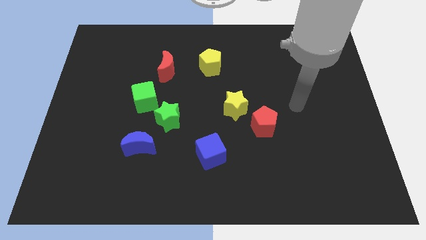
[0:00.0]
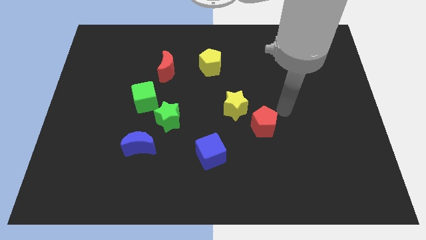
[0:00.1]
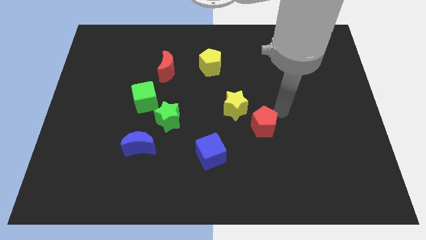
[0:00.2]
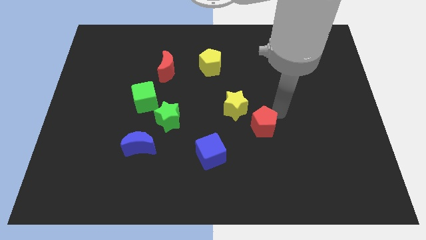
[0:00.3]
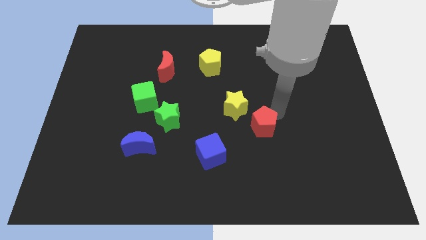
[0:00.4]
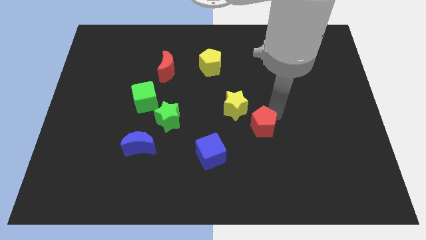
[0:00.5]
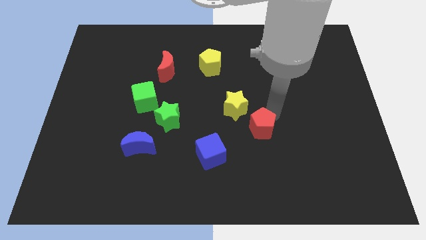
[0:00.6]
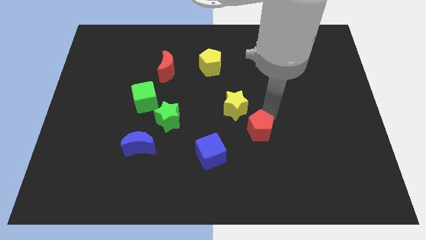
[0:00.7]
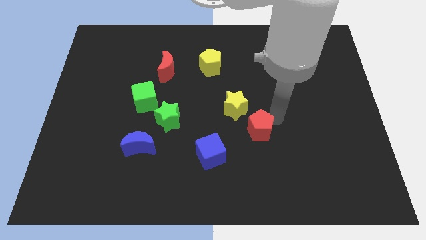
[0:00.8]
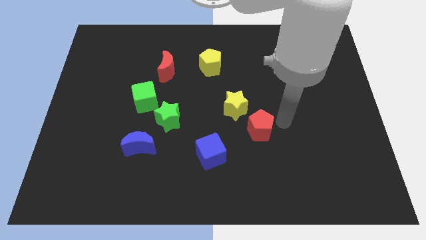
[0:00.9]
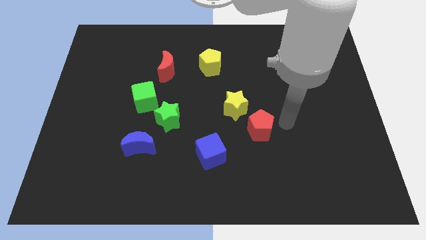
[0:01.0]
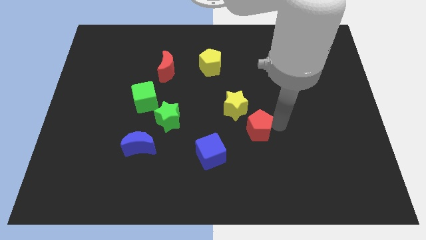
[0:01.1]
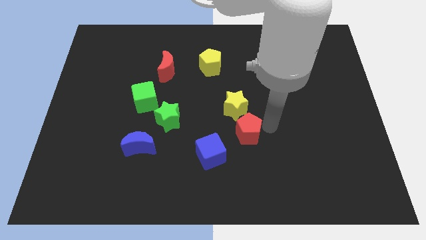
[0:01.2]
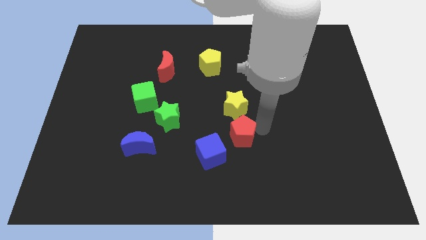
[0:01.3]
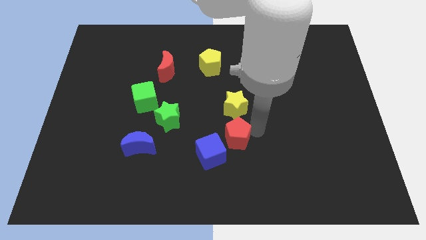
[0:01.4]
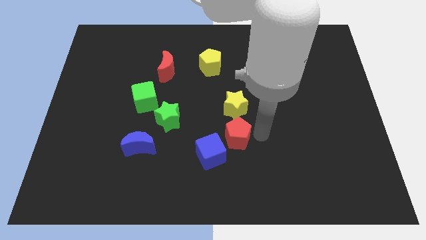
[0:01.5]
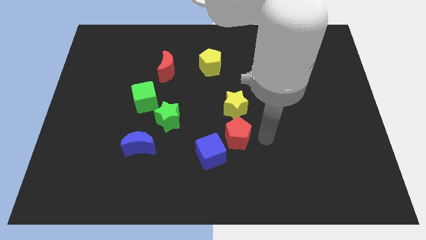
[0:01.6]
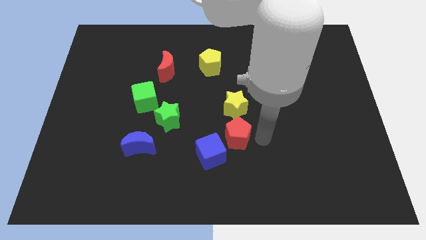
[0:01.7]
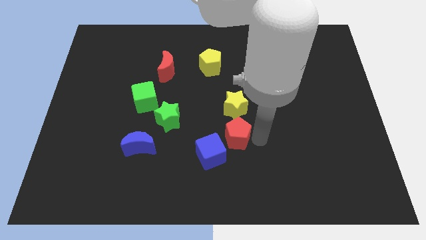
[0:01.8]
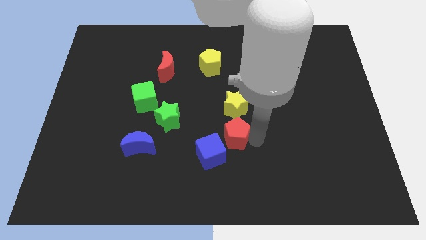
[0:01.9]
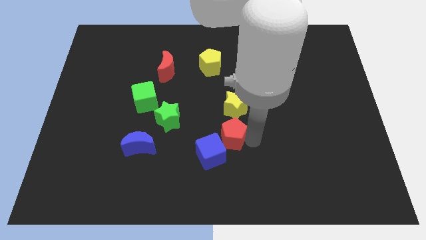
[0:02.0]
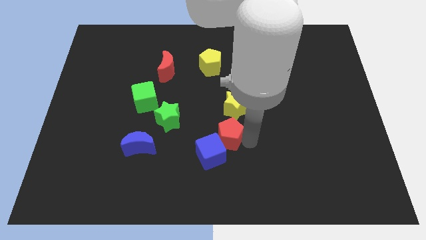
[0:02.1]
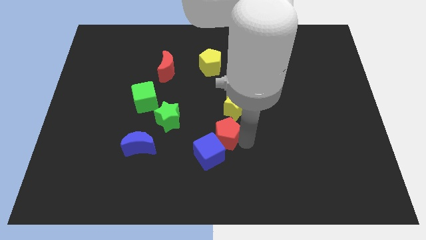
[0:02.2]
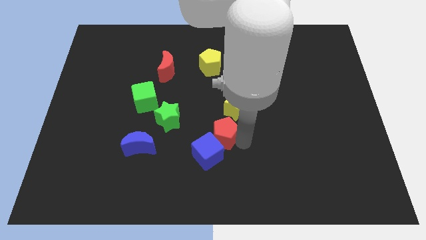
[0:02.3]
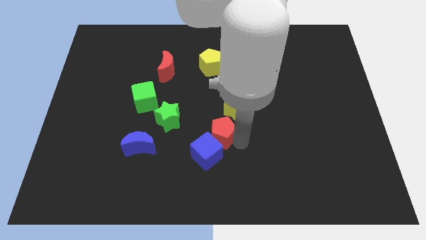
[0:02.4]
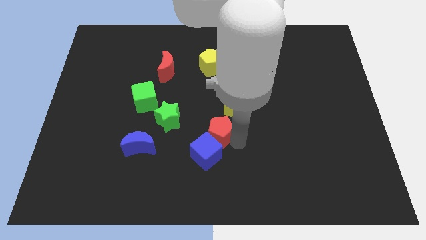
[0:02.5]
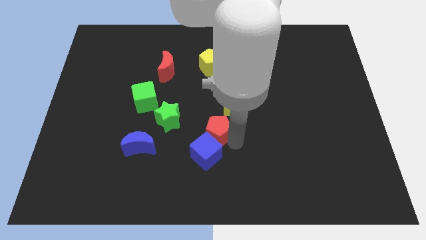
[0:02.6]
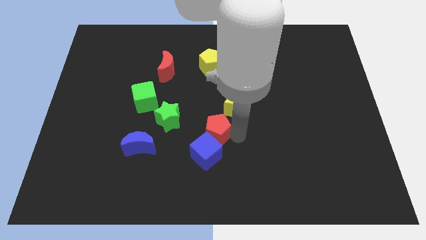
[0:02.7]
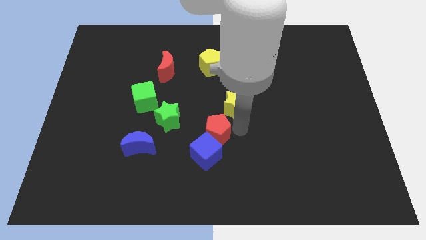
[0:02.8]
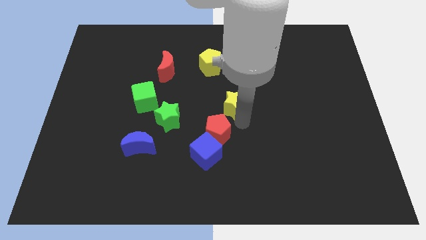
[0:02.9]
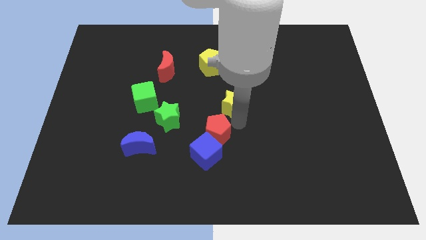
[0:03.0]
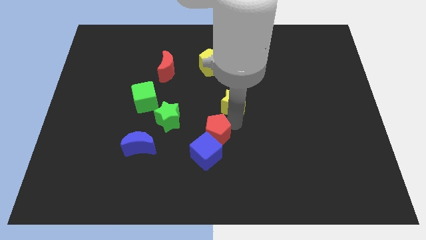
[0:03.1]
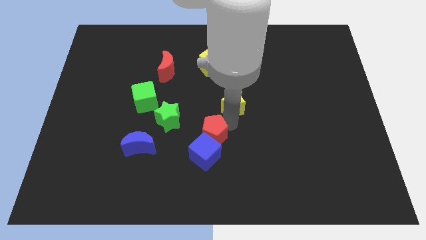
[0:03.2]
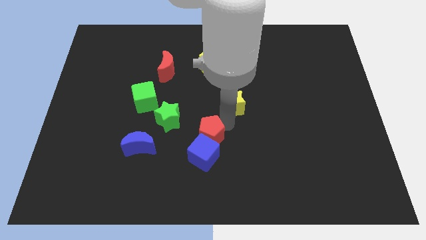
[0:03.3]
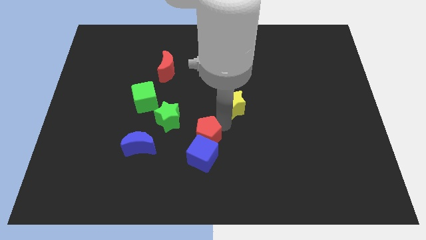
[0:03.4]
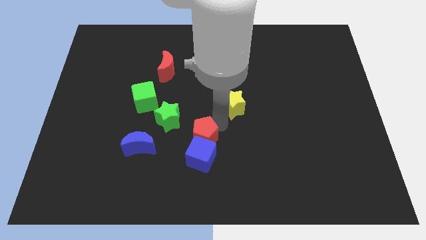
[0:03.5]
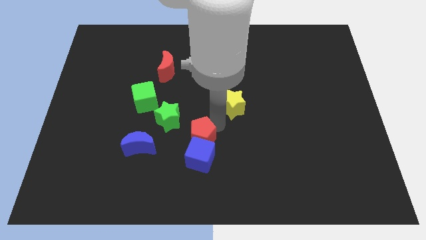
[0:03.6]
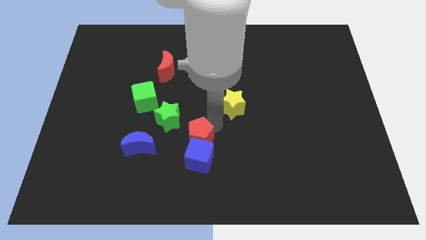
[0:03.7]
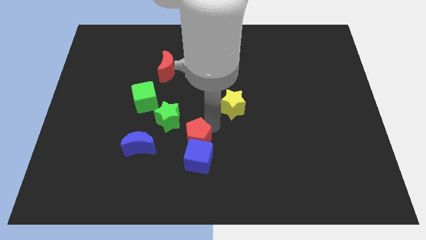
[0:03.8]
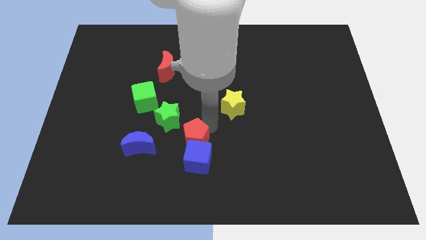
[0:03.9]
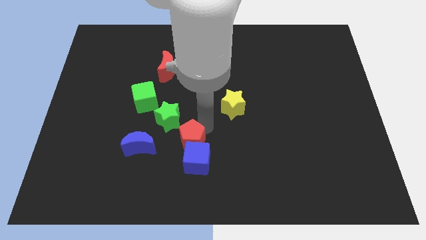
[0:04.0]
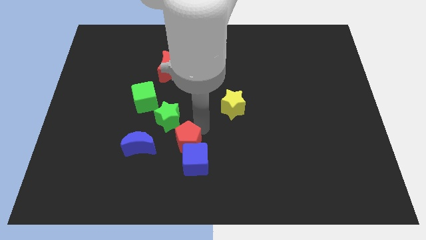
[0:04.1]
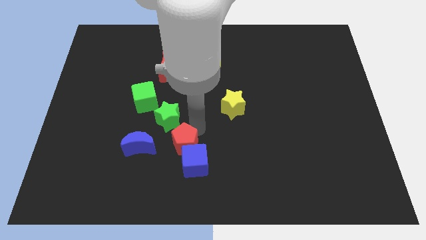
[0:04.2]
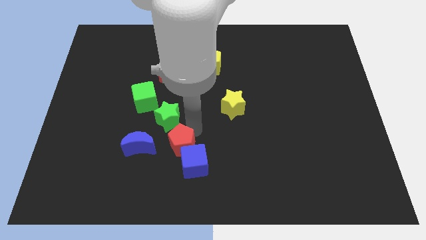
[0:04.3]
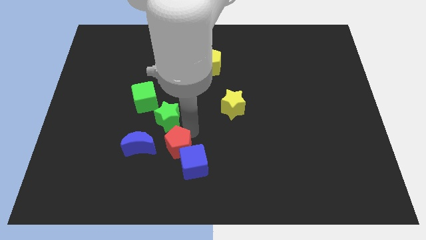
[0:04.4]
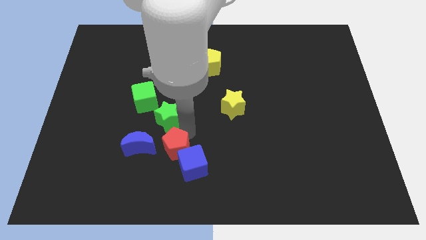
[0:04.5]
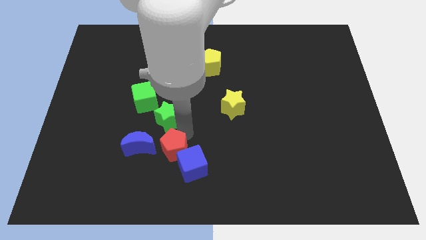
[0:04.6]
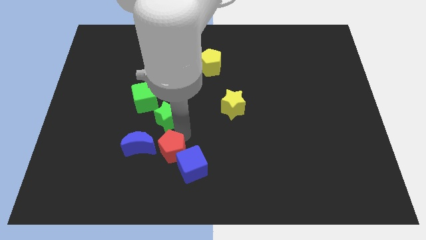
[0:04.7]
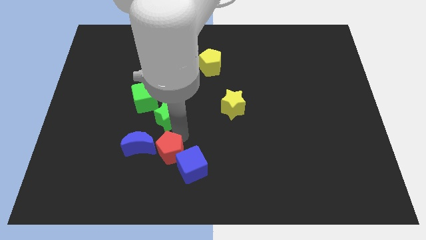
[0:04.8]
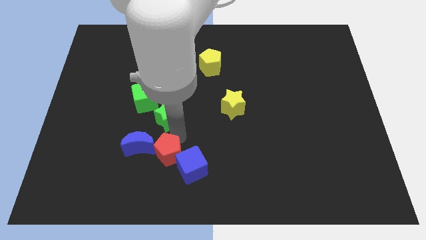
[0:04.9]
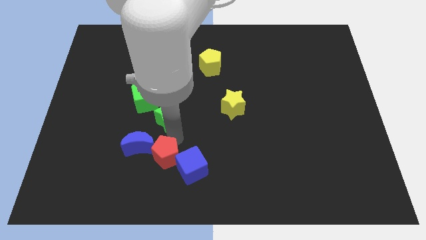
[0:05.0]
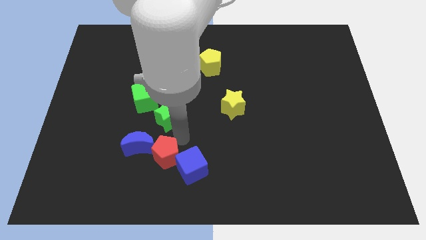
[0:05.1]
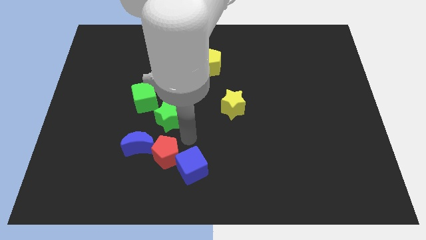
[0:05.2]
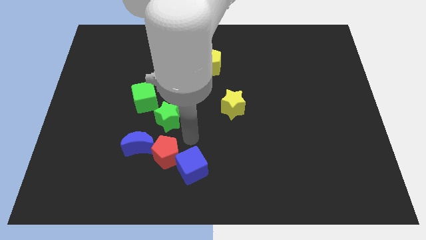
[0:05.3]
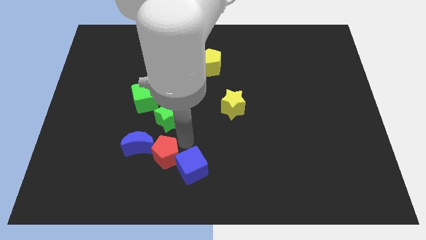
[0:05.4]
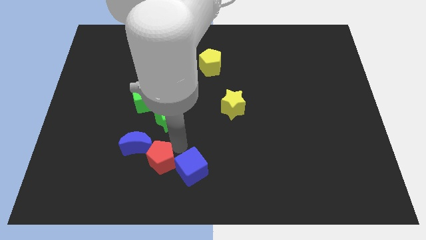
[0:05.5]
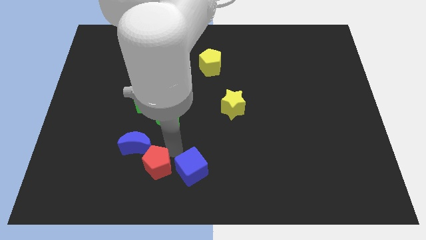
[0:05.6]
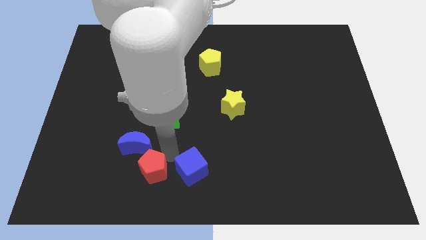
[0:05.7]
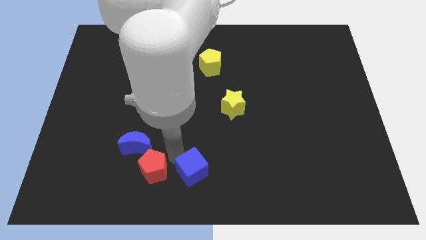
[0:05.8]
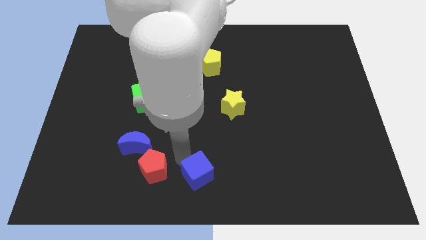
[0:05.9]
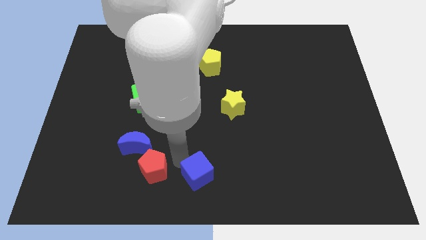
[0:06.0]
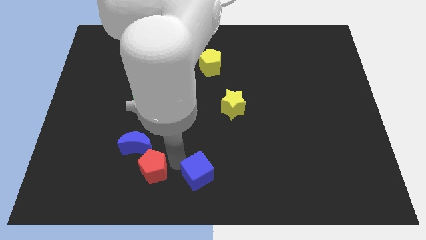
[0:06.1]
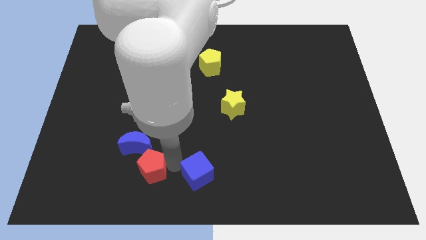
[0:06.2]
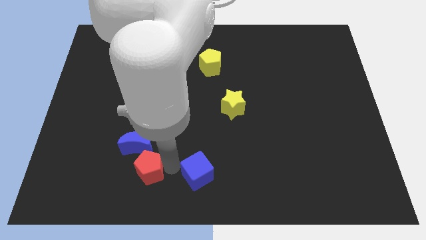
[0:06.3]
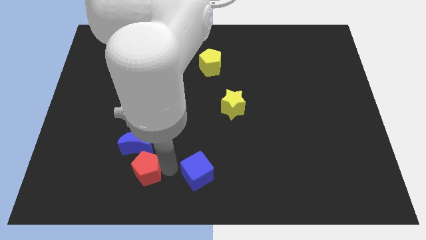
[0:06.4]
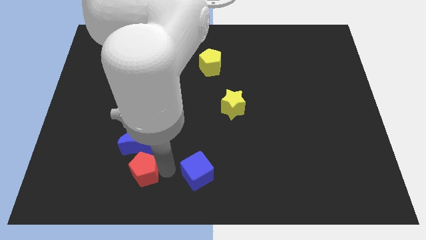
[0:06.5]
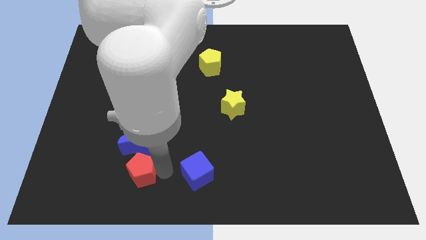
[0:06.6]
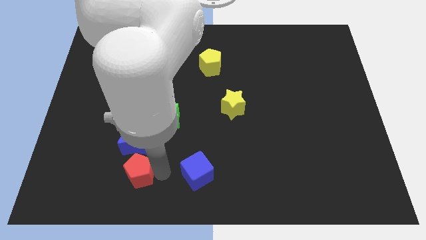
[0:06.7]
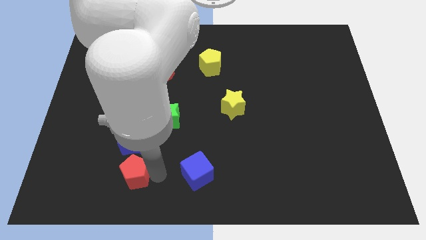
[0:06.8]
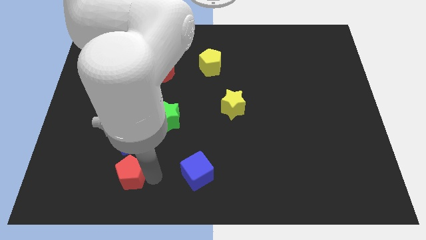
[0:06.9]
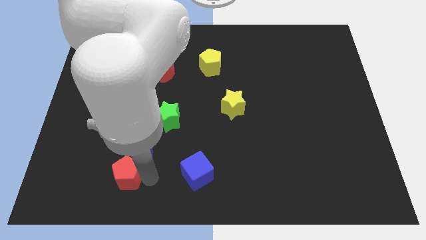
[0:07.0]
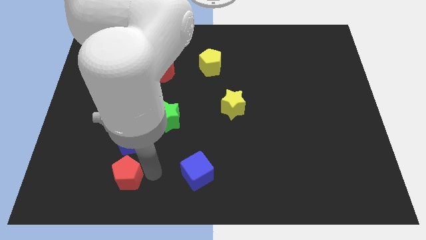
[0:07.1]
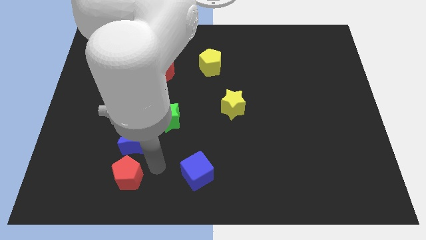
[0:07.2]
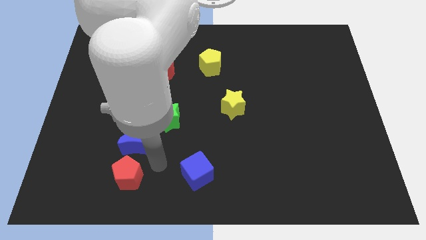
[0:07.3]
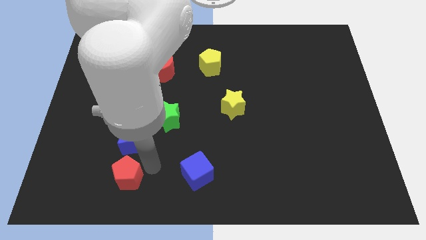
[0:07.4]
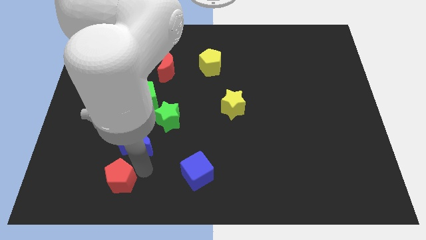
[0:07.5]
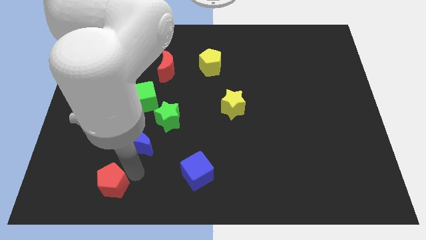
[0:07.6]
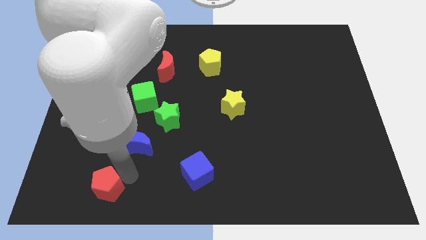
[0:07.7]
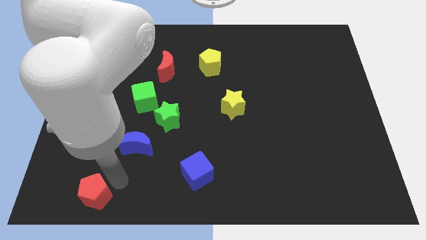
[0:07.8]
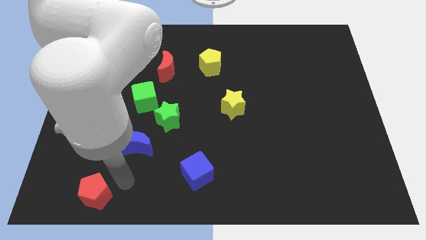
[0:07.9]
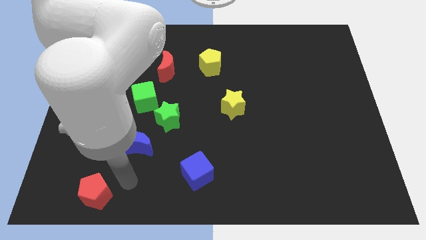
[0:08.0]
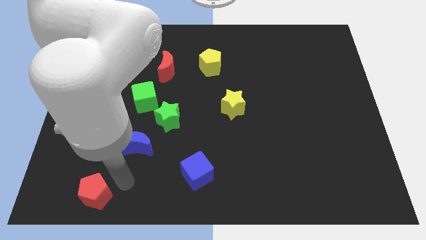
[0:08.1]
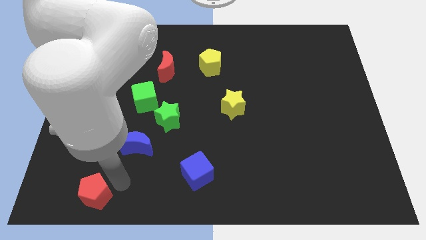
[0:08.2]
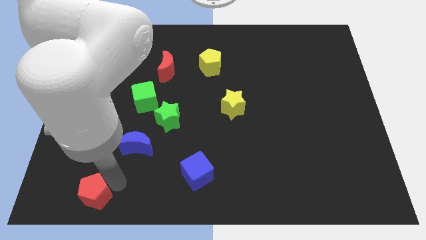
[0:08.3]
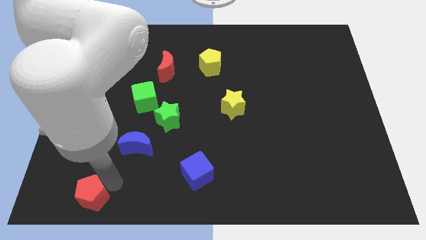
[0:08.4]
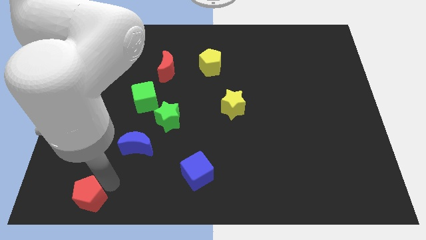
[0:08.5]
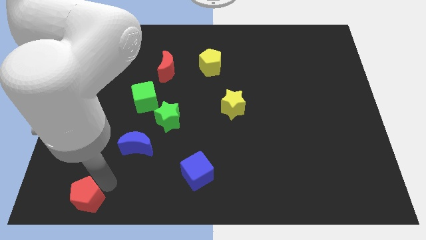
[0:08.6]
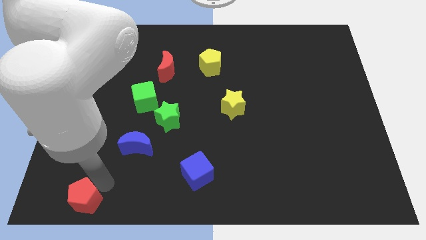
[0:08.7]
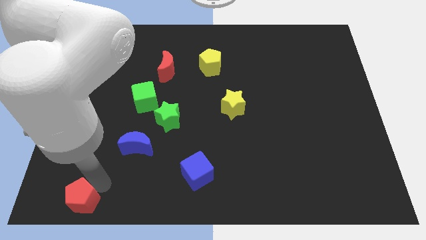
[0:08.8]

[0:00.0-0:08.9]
move the red pentagon to the lower left corner
